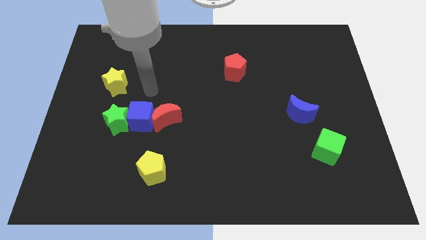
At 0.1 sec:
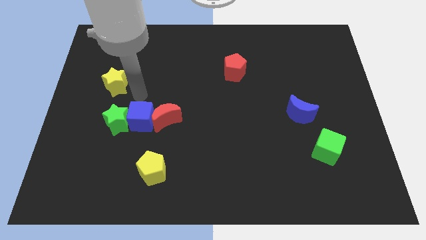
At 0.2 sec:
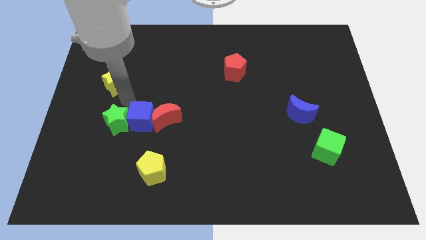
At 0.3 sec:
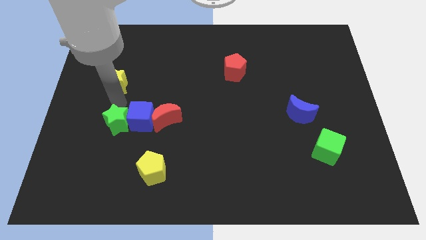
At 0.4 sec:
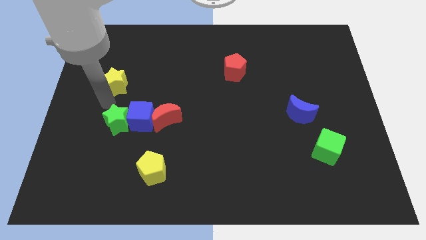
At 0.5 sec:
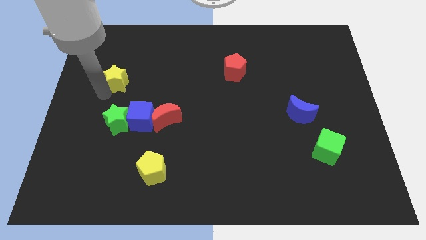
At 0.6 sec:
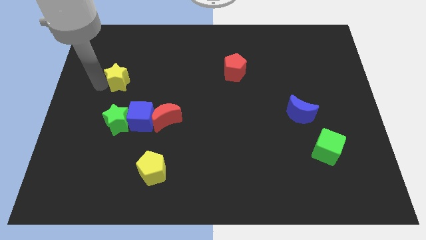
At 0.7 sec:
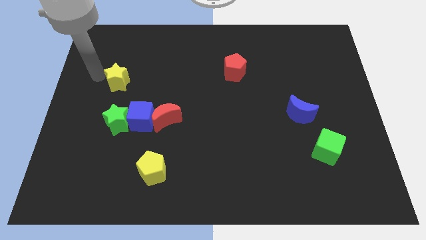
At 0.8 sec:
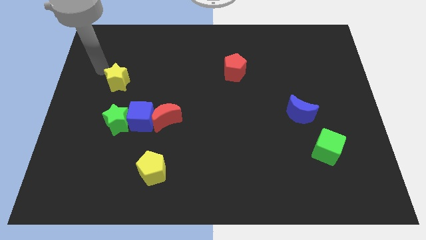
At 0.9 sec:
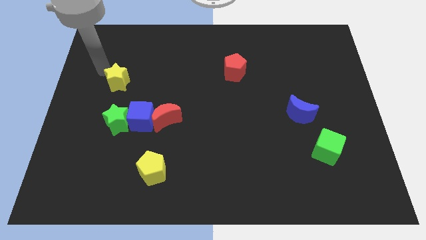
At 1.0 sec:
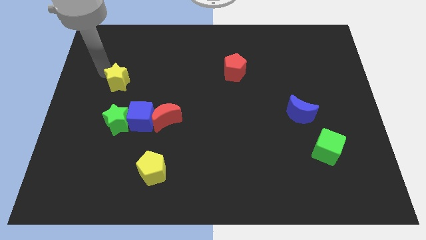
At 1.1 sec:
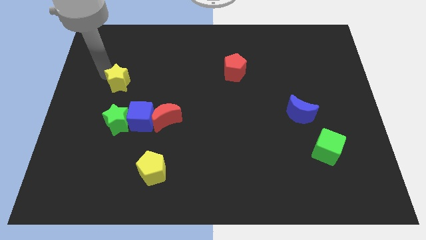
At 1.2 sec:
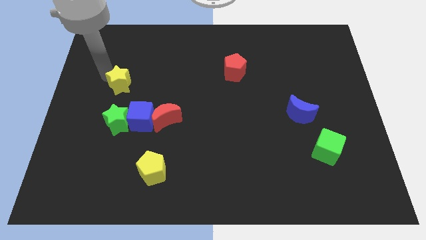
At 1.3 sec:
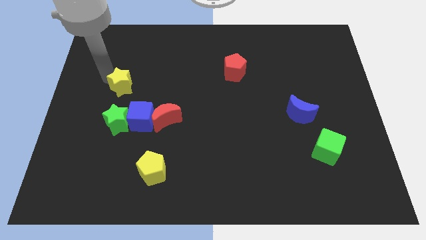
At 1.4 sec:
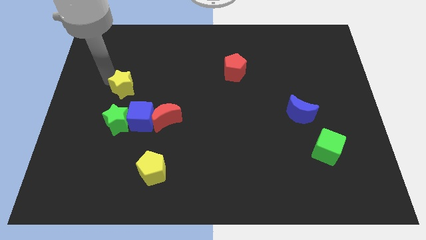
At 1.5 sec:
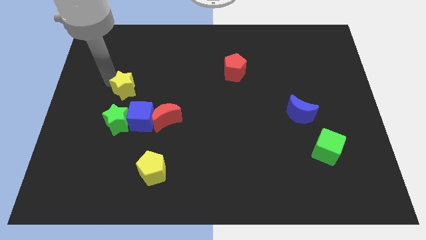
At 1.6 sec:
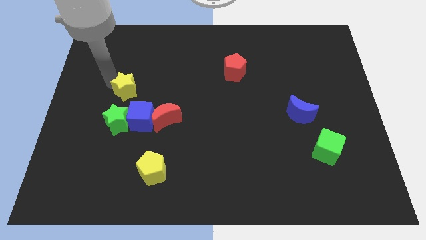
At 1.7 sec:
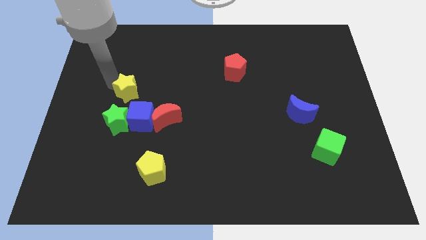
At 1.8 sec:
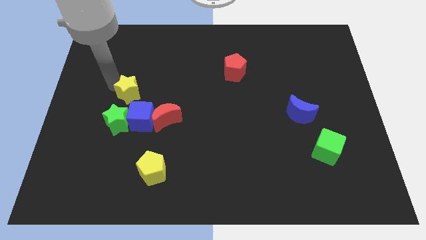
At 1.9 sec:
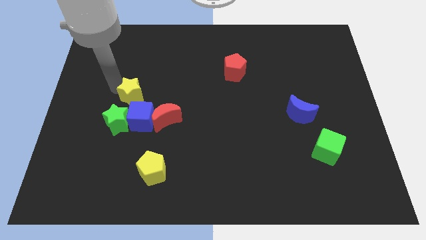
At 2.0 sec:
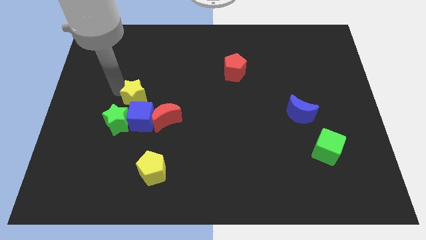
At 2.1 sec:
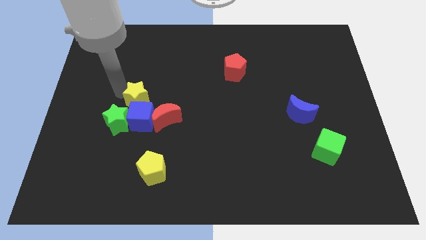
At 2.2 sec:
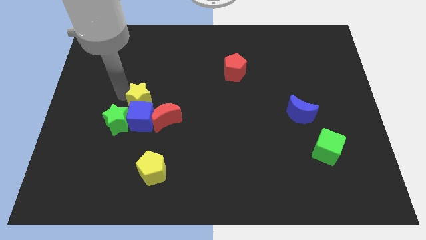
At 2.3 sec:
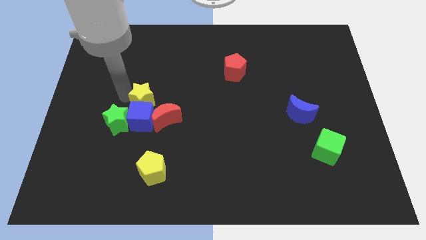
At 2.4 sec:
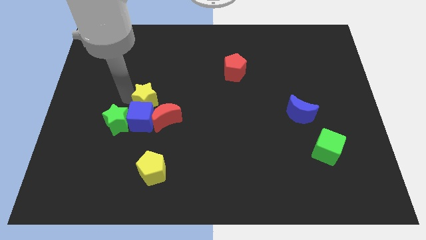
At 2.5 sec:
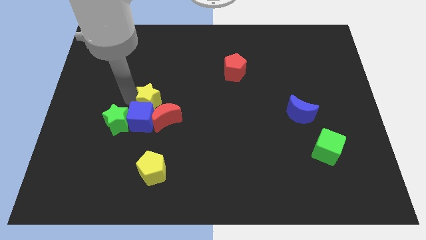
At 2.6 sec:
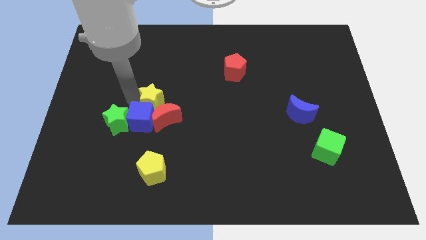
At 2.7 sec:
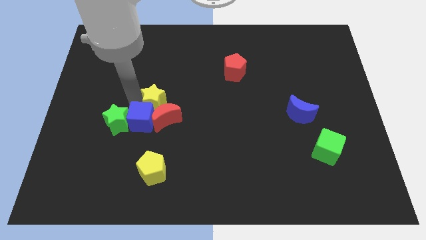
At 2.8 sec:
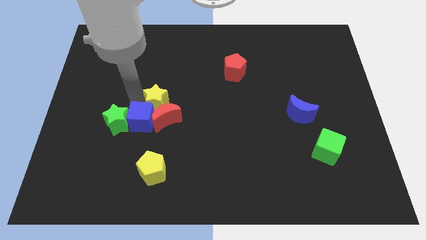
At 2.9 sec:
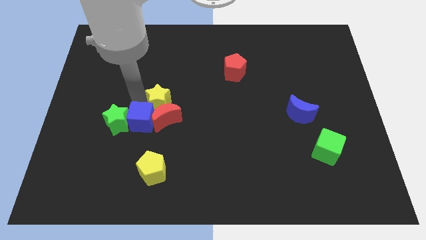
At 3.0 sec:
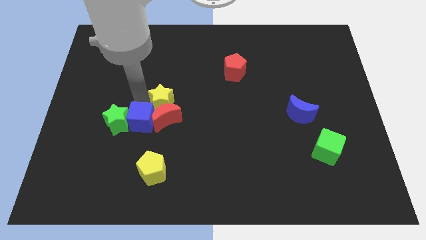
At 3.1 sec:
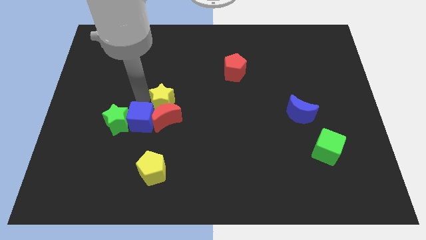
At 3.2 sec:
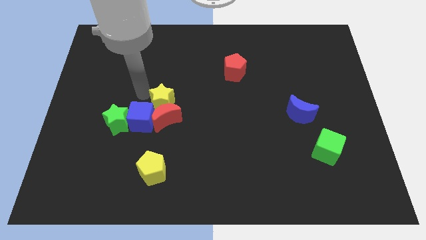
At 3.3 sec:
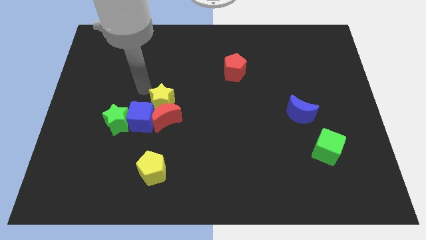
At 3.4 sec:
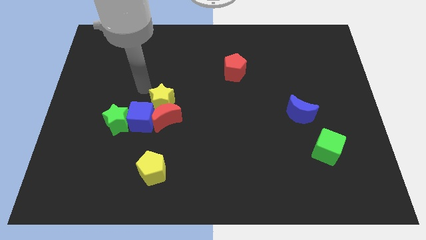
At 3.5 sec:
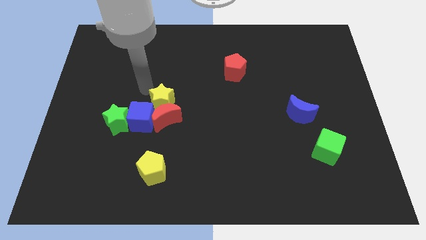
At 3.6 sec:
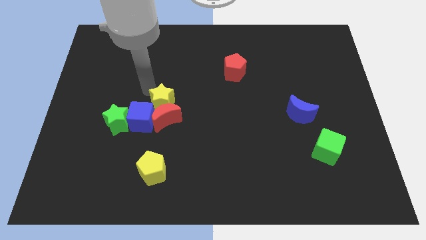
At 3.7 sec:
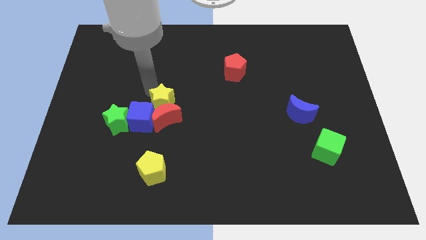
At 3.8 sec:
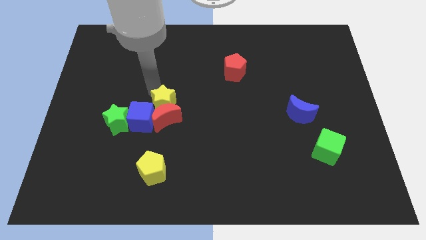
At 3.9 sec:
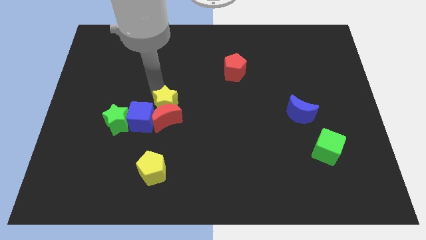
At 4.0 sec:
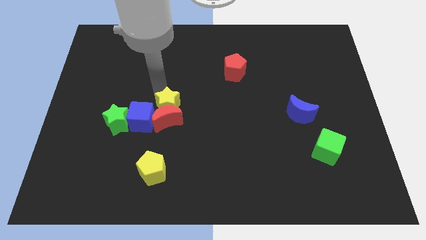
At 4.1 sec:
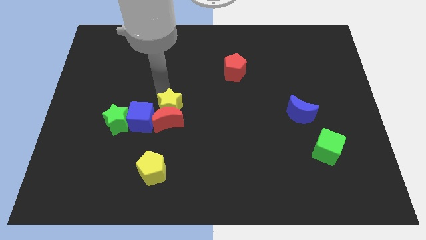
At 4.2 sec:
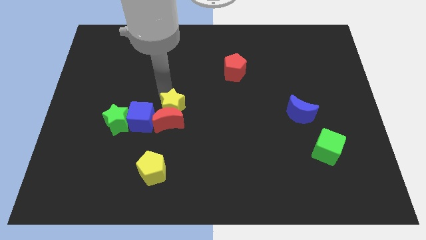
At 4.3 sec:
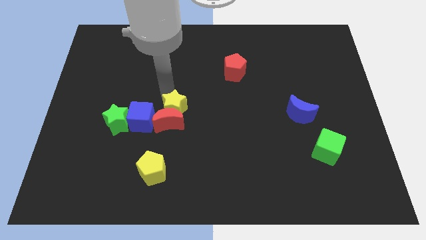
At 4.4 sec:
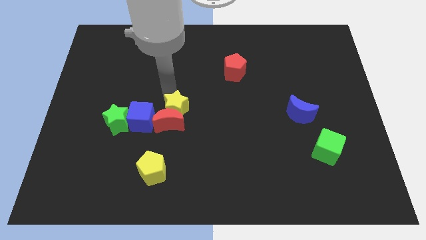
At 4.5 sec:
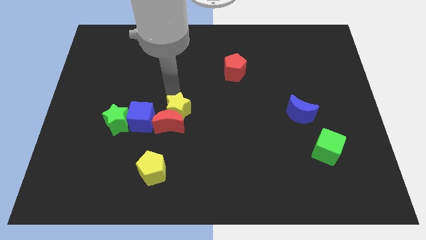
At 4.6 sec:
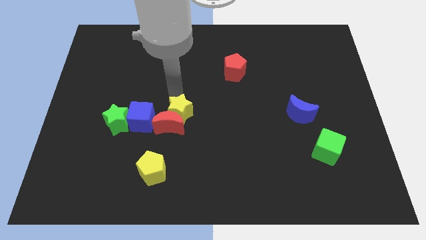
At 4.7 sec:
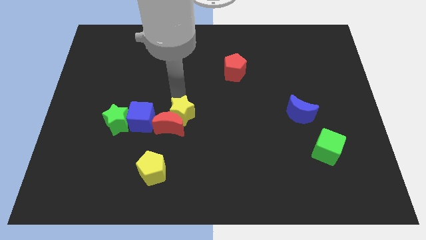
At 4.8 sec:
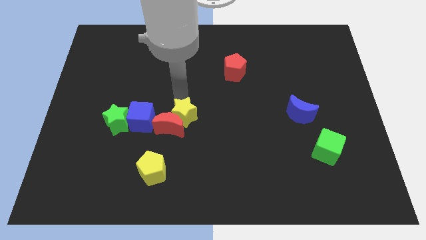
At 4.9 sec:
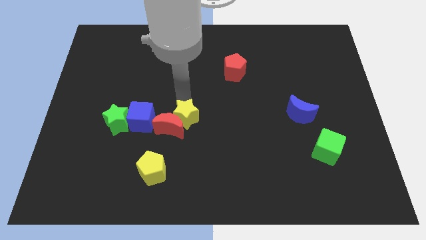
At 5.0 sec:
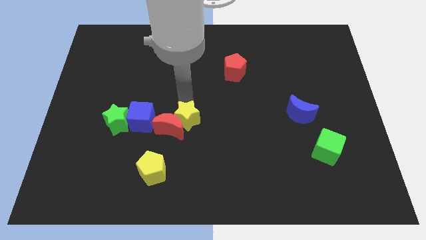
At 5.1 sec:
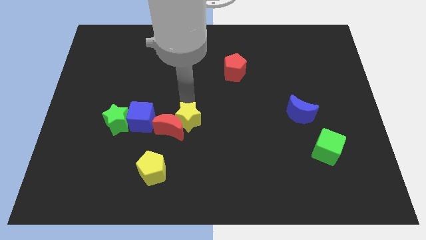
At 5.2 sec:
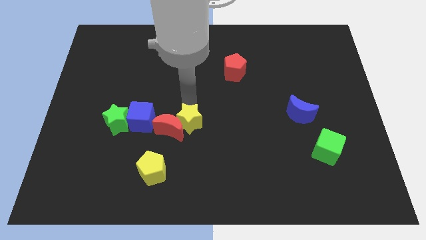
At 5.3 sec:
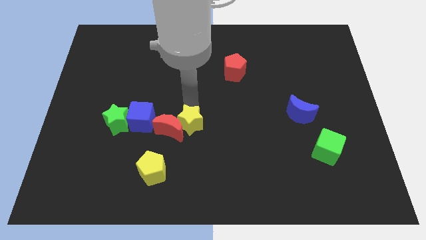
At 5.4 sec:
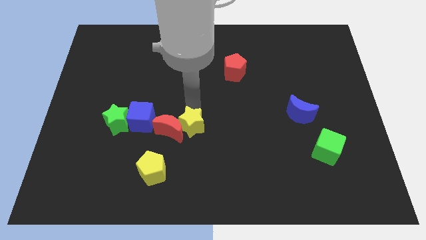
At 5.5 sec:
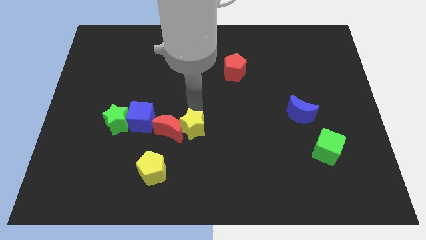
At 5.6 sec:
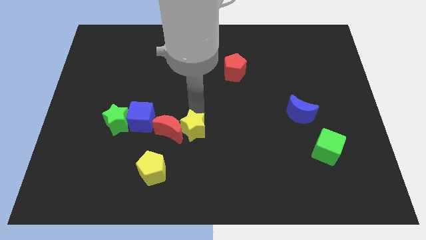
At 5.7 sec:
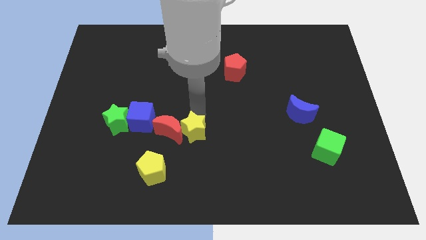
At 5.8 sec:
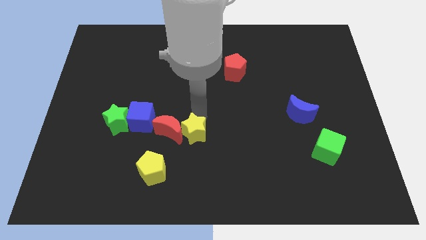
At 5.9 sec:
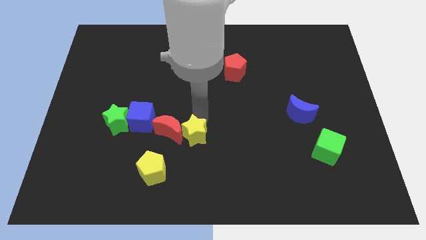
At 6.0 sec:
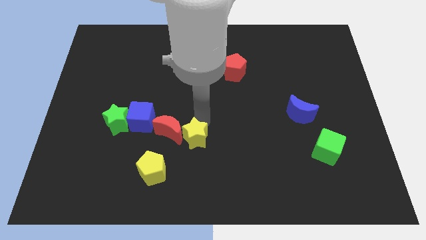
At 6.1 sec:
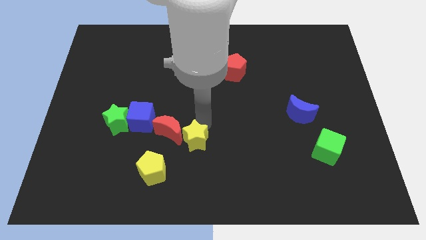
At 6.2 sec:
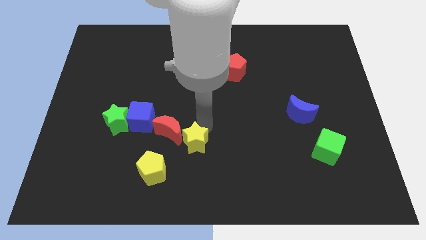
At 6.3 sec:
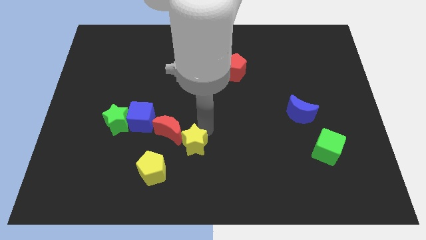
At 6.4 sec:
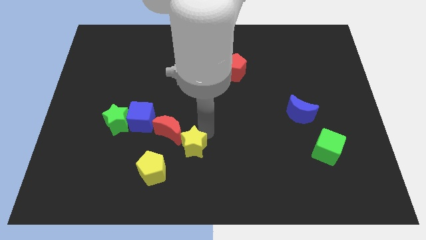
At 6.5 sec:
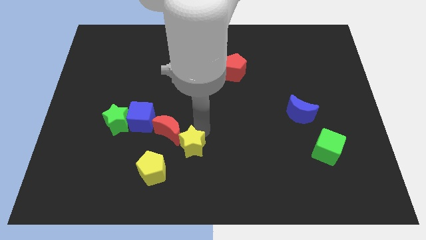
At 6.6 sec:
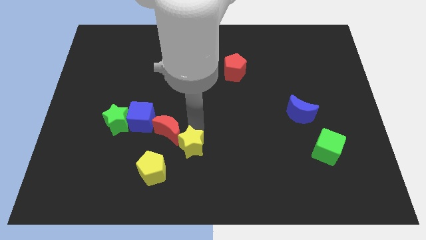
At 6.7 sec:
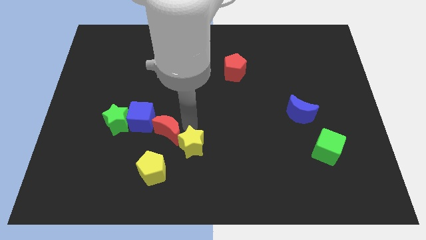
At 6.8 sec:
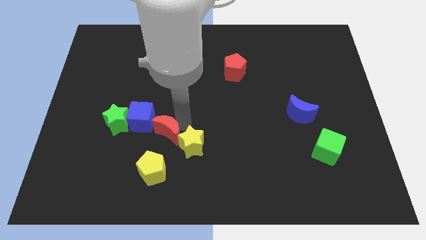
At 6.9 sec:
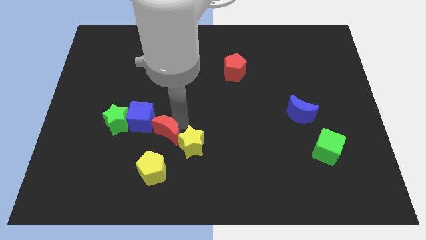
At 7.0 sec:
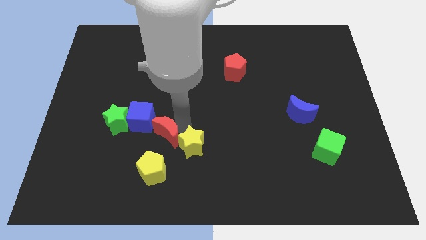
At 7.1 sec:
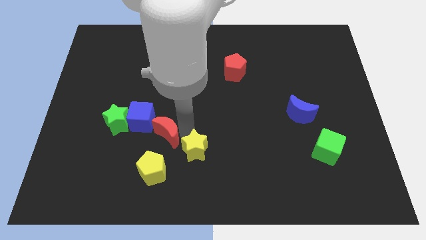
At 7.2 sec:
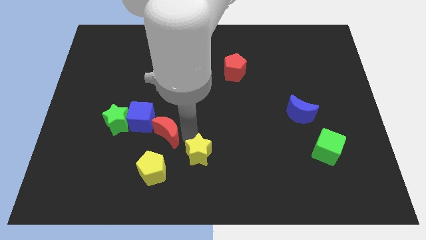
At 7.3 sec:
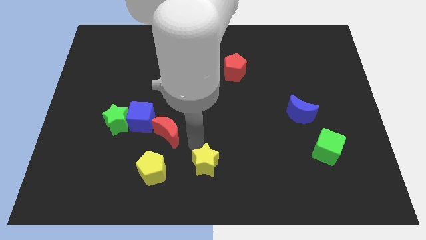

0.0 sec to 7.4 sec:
slide the yellow star to the bottom side
